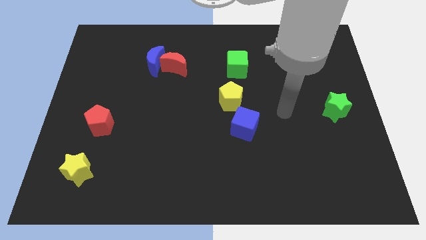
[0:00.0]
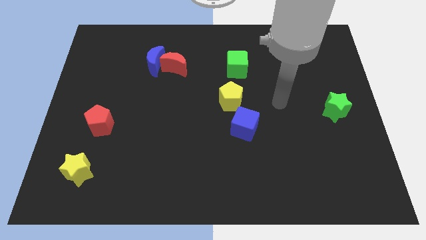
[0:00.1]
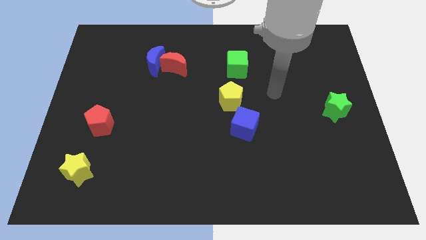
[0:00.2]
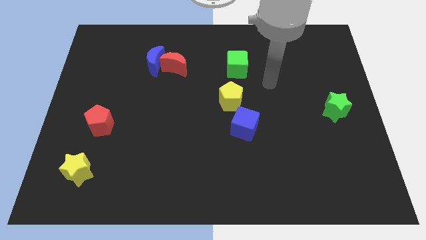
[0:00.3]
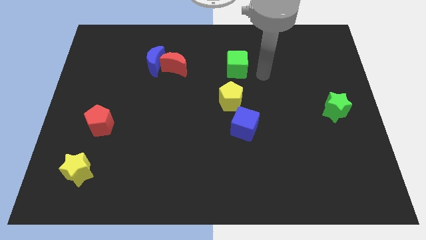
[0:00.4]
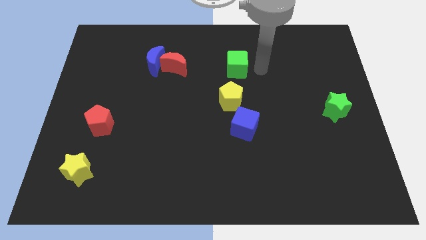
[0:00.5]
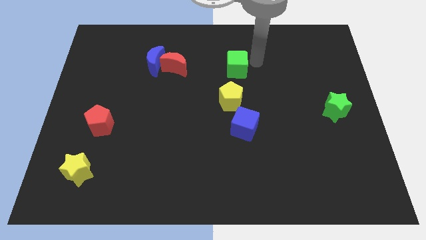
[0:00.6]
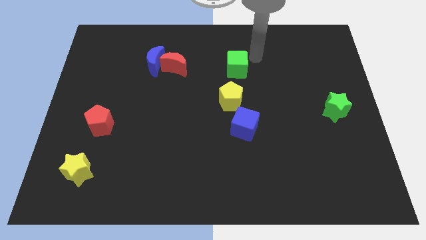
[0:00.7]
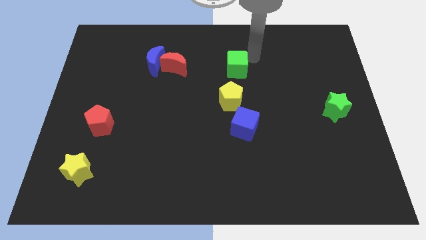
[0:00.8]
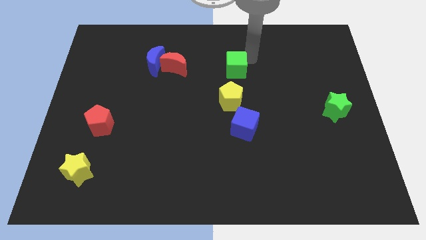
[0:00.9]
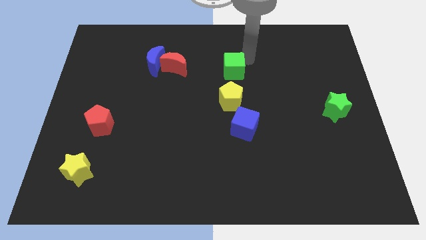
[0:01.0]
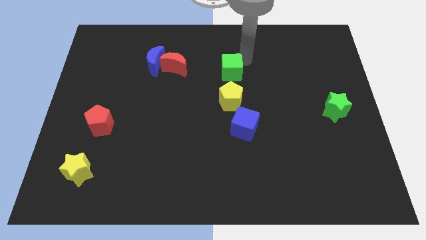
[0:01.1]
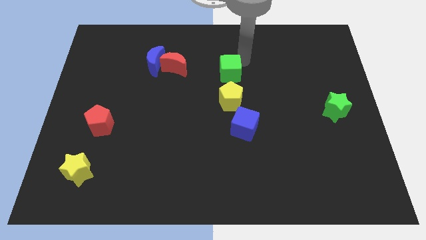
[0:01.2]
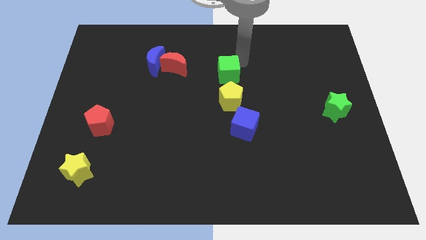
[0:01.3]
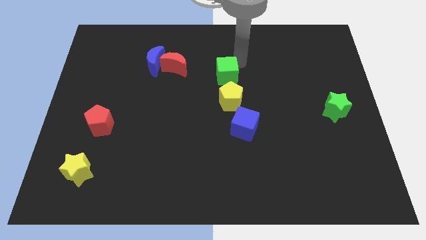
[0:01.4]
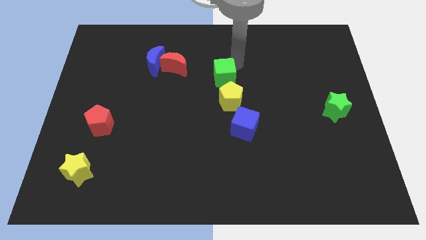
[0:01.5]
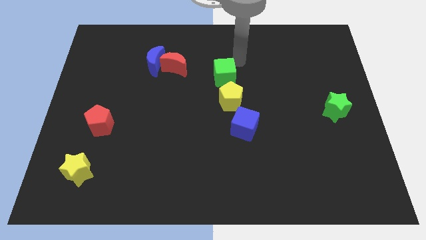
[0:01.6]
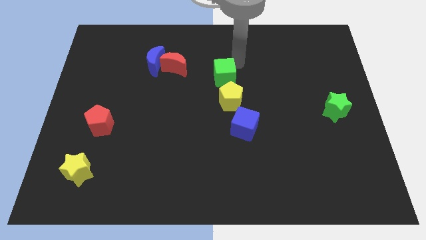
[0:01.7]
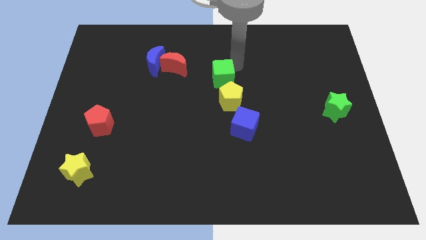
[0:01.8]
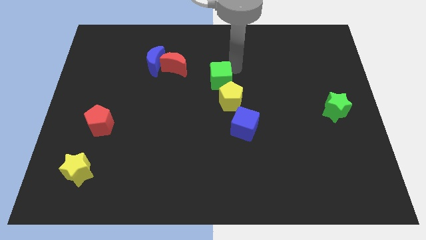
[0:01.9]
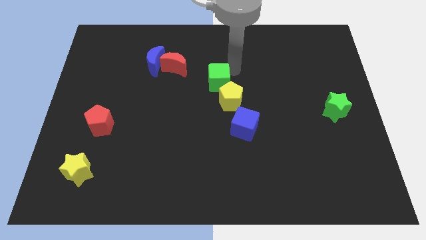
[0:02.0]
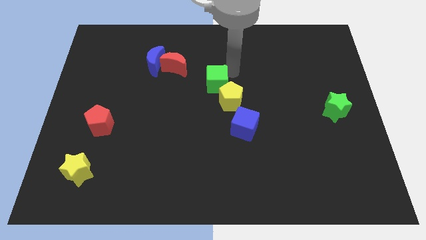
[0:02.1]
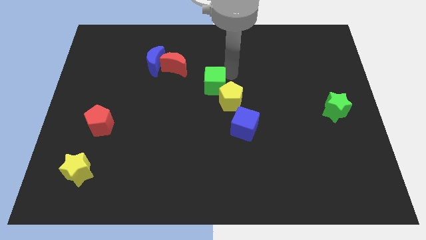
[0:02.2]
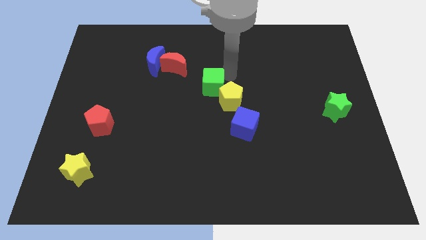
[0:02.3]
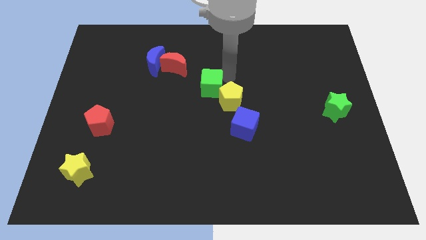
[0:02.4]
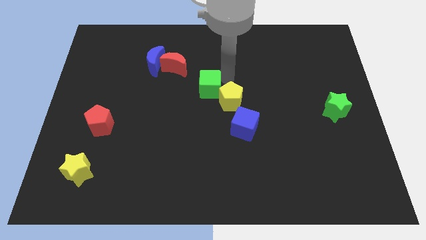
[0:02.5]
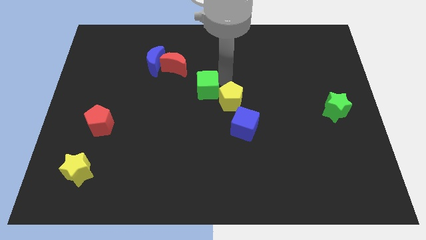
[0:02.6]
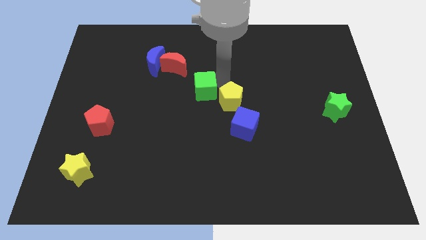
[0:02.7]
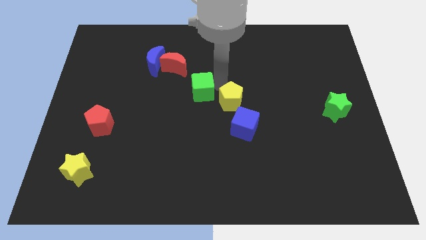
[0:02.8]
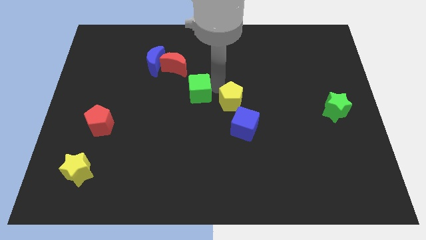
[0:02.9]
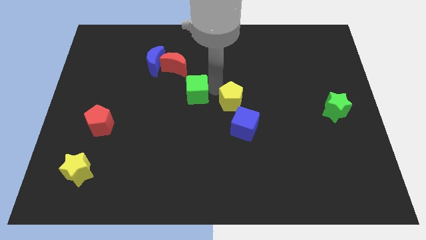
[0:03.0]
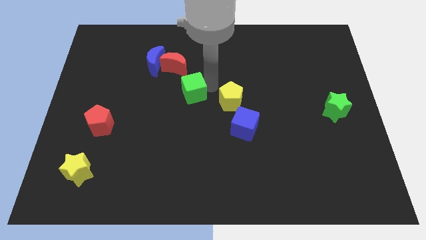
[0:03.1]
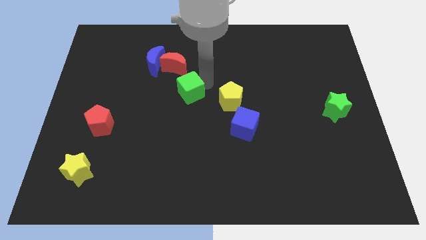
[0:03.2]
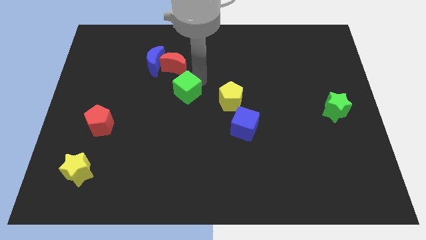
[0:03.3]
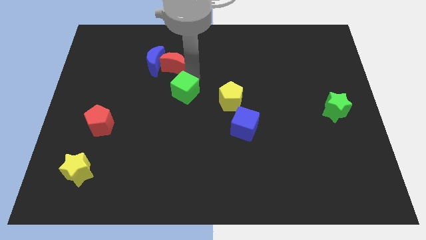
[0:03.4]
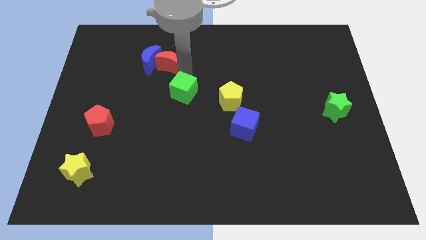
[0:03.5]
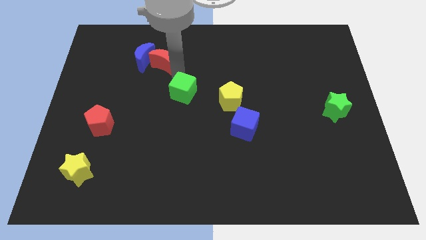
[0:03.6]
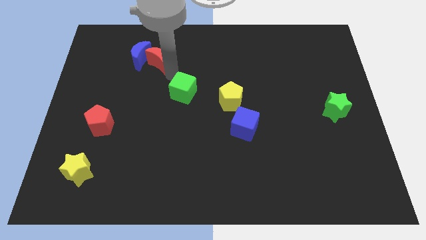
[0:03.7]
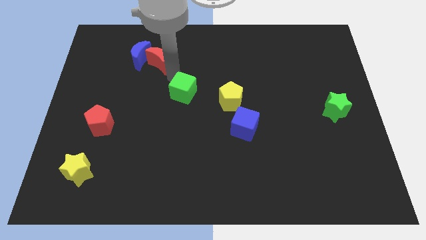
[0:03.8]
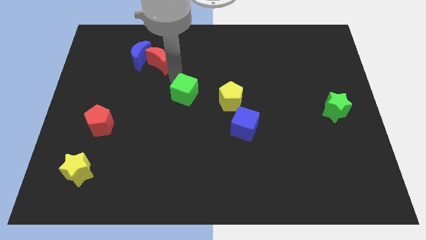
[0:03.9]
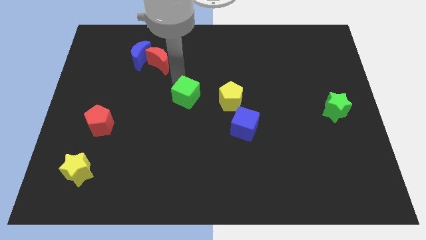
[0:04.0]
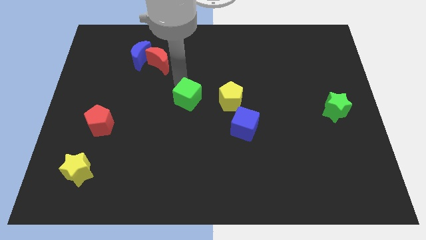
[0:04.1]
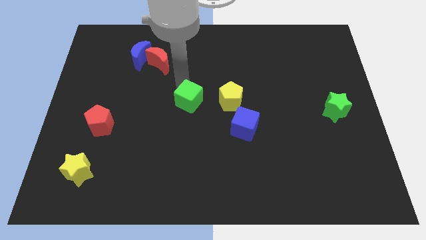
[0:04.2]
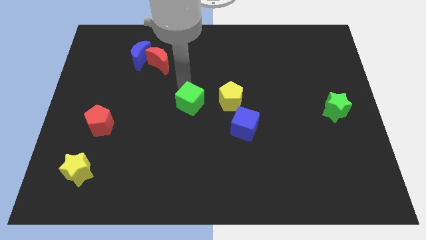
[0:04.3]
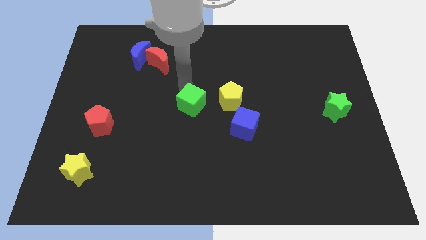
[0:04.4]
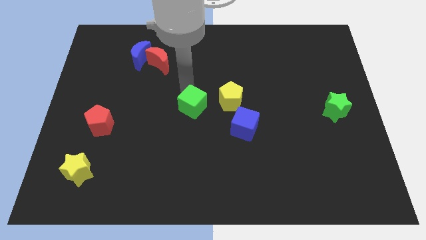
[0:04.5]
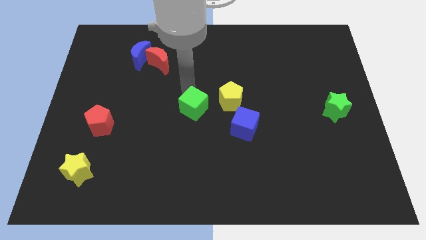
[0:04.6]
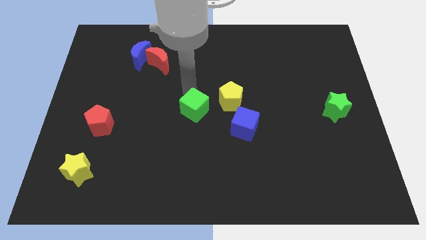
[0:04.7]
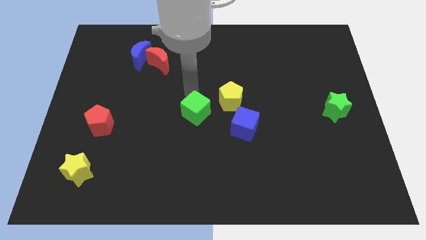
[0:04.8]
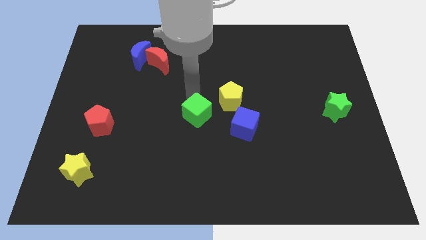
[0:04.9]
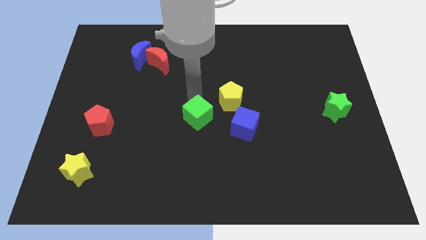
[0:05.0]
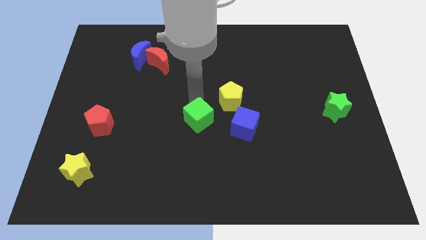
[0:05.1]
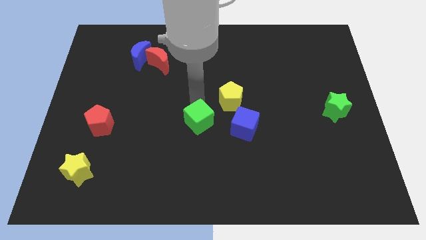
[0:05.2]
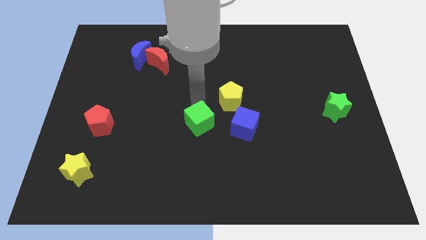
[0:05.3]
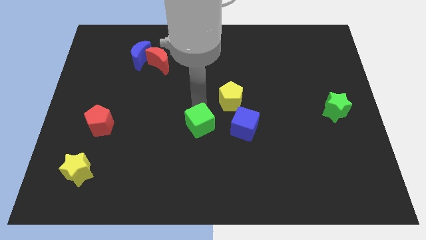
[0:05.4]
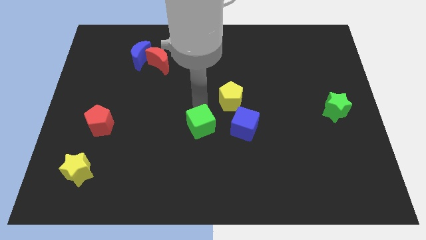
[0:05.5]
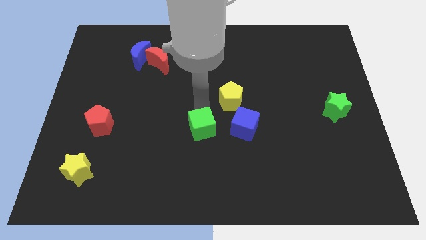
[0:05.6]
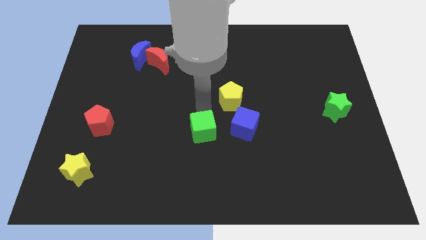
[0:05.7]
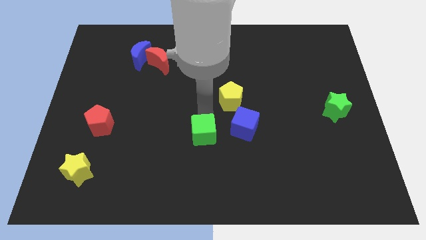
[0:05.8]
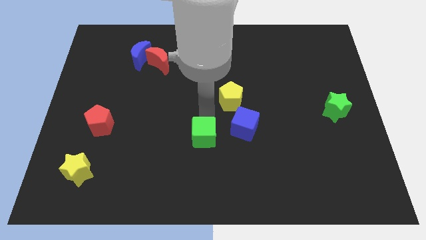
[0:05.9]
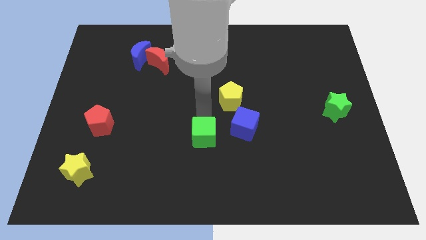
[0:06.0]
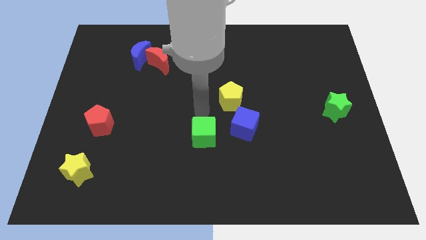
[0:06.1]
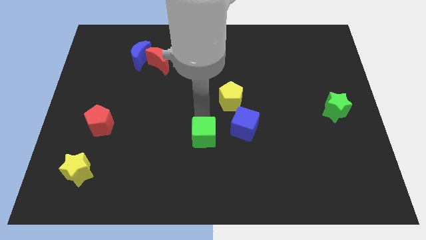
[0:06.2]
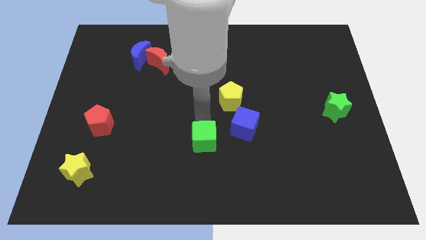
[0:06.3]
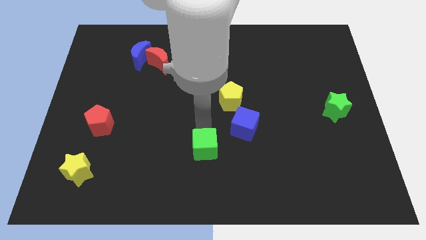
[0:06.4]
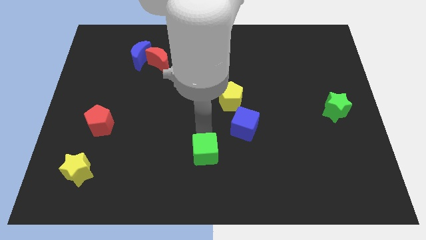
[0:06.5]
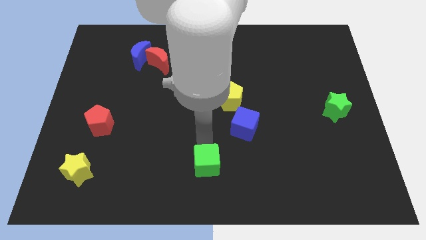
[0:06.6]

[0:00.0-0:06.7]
move the green cube to the bottom side
